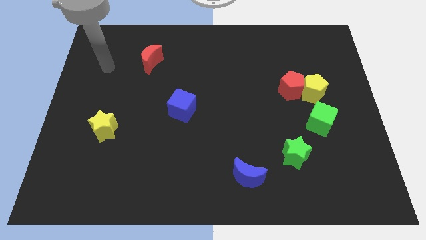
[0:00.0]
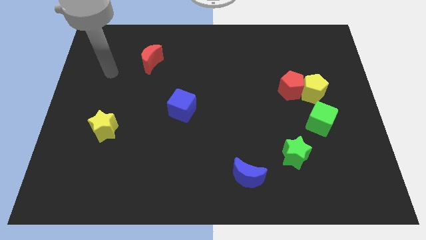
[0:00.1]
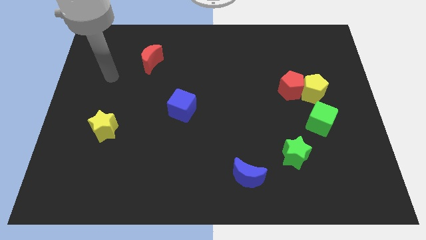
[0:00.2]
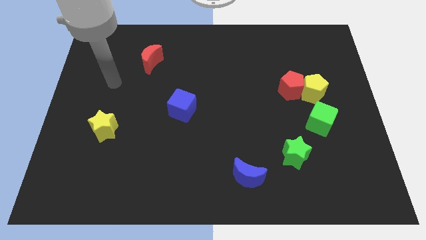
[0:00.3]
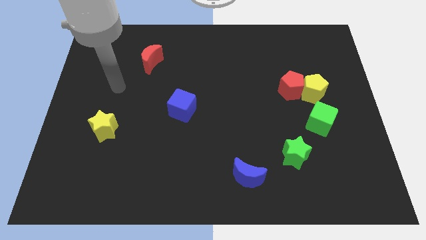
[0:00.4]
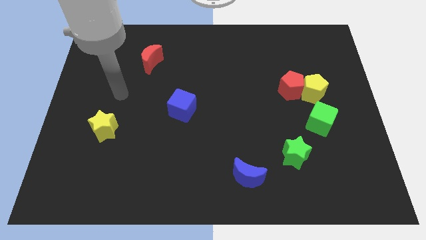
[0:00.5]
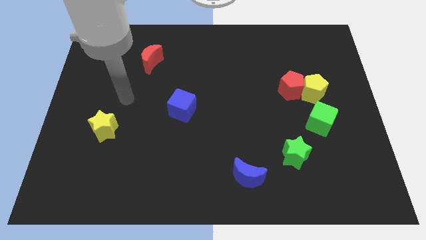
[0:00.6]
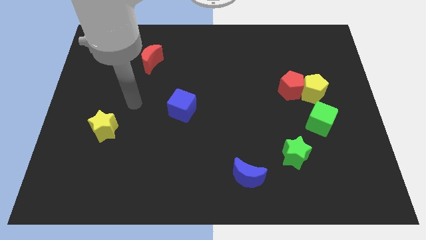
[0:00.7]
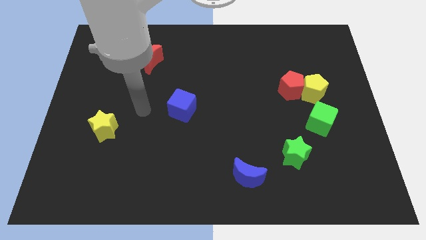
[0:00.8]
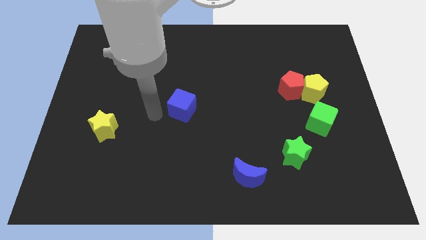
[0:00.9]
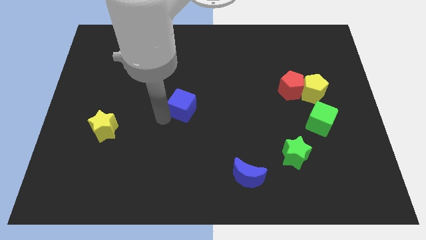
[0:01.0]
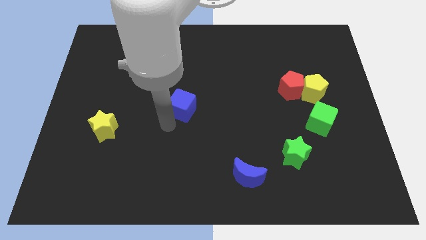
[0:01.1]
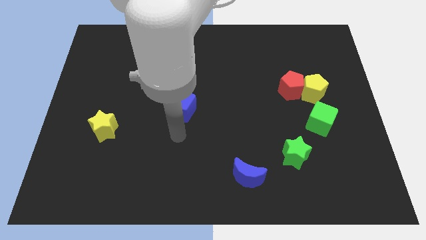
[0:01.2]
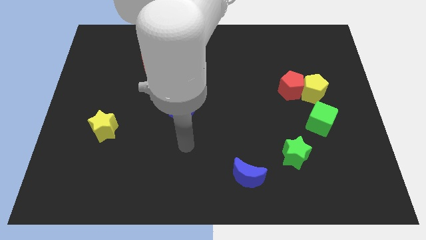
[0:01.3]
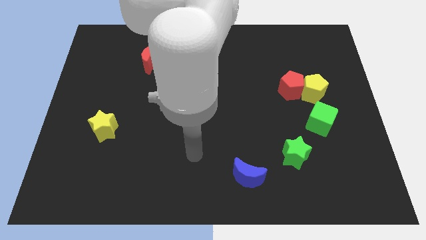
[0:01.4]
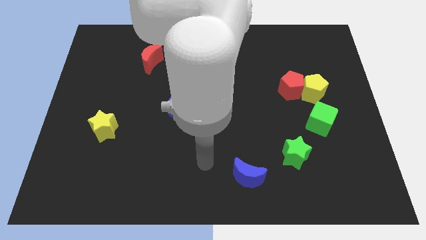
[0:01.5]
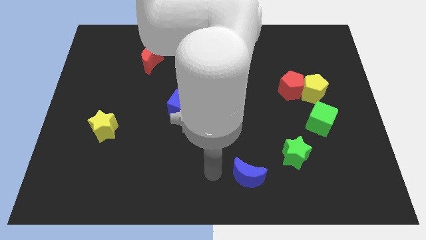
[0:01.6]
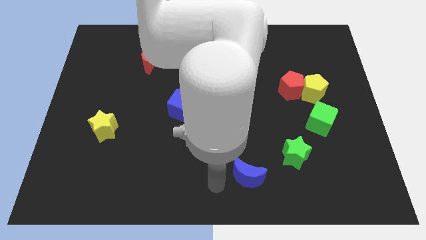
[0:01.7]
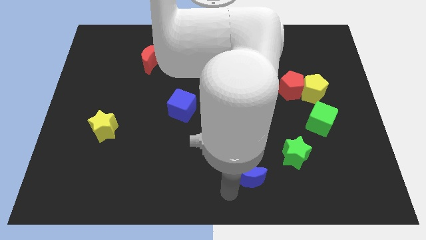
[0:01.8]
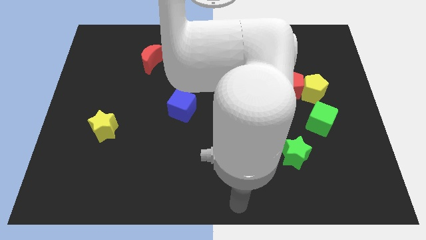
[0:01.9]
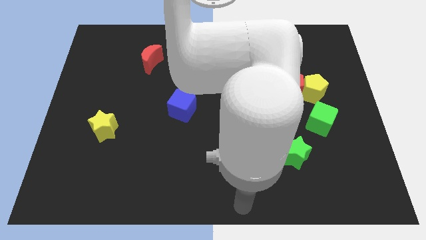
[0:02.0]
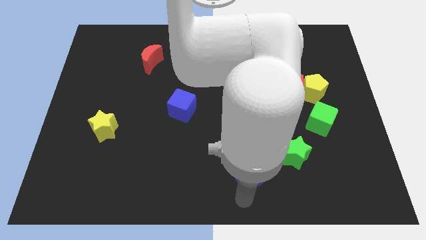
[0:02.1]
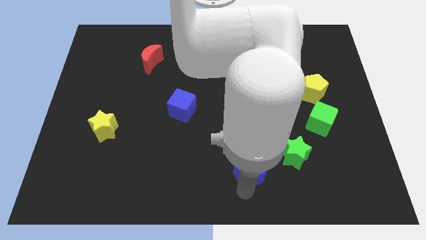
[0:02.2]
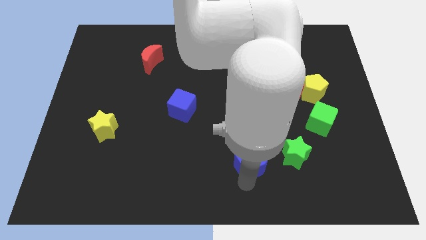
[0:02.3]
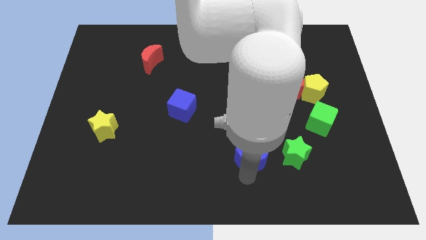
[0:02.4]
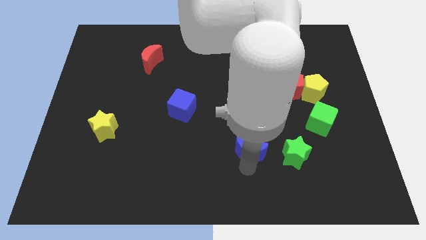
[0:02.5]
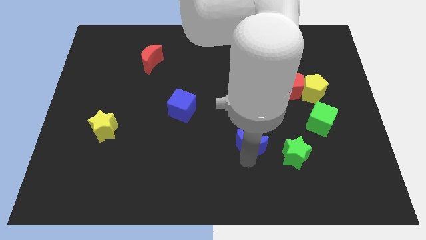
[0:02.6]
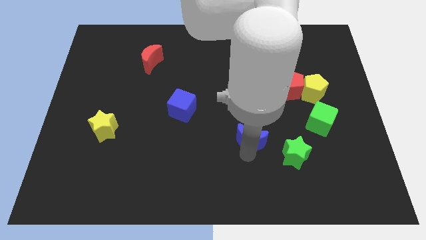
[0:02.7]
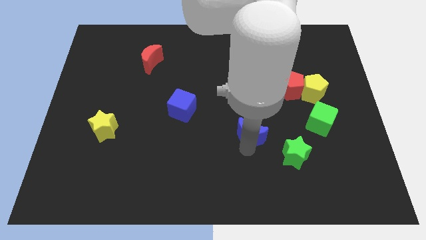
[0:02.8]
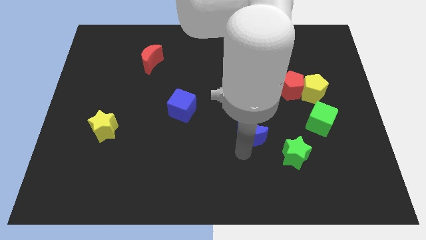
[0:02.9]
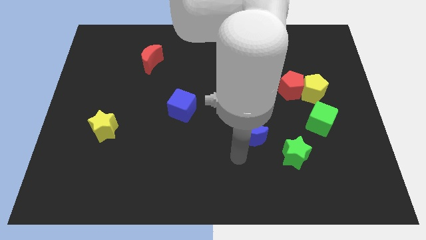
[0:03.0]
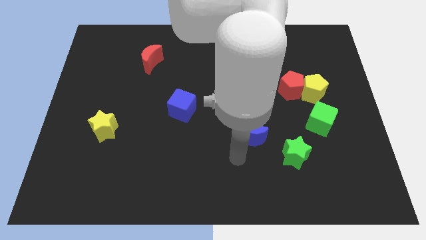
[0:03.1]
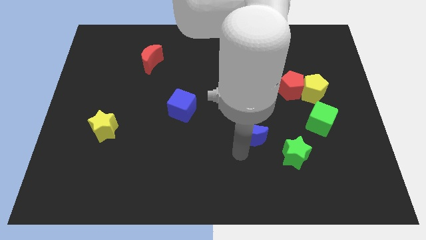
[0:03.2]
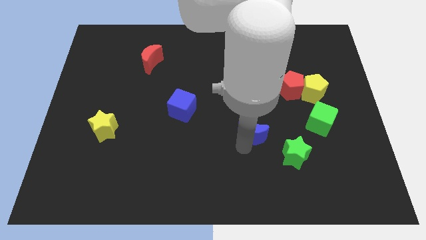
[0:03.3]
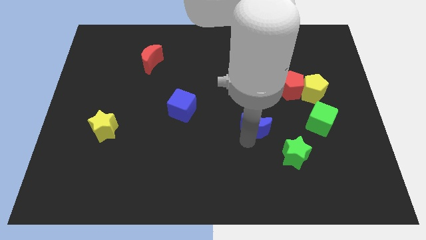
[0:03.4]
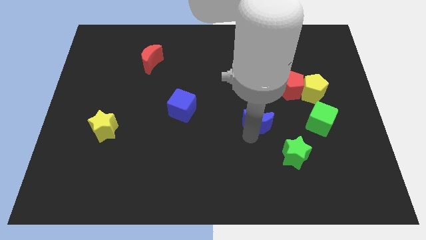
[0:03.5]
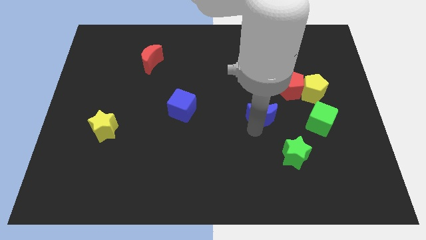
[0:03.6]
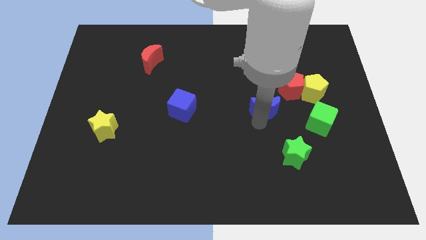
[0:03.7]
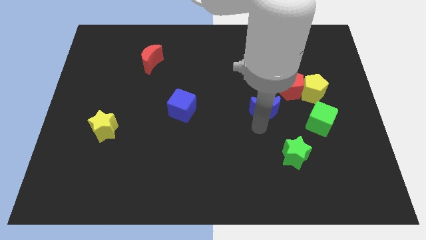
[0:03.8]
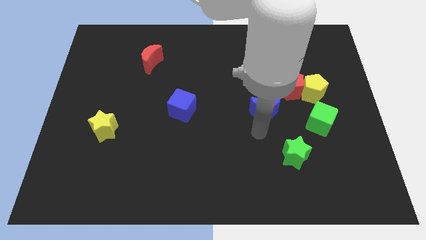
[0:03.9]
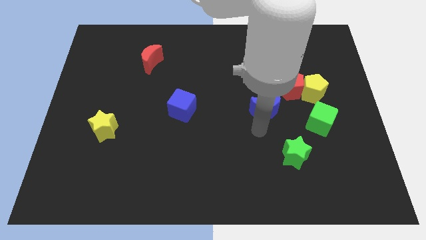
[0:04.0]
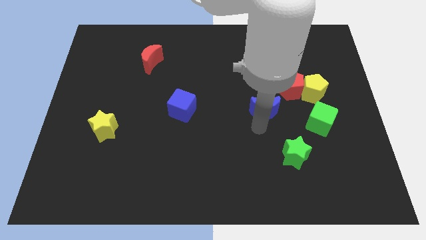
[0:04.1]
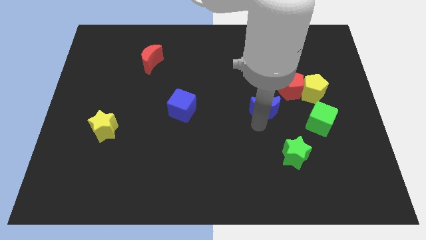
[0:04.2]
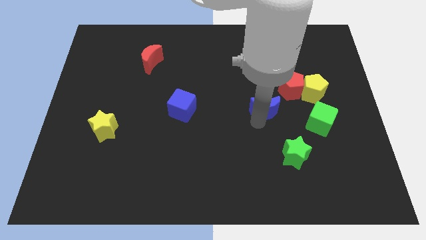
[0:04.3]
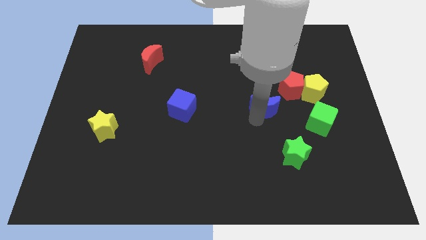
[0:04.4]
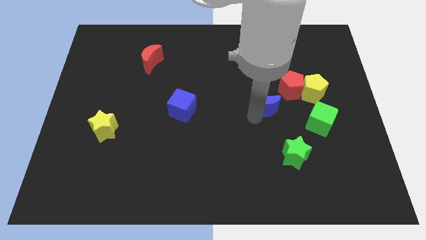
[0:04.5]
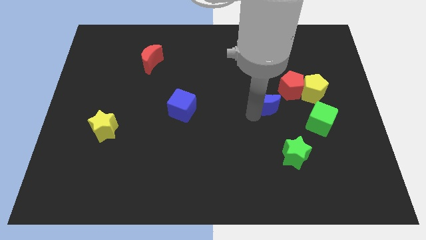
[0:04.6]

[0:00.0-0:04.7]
push the blue moon left of the yellow pentagon

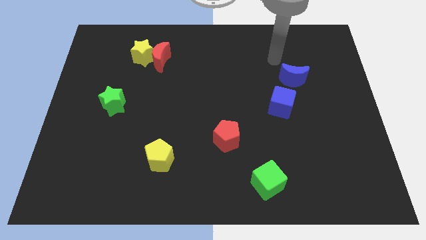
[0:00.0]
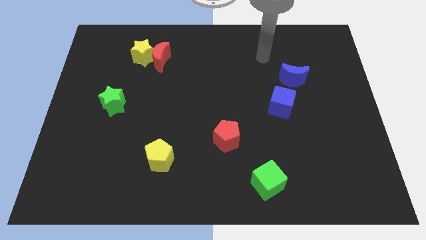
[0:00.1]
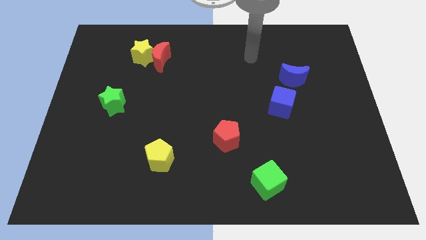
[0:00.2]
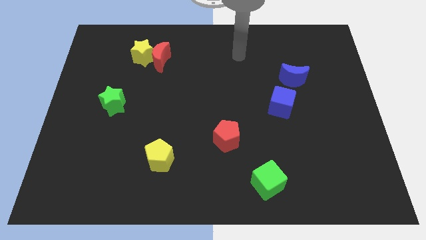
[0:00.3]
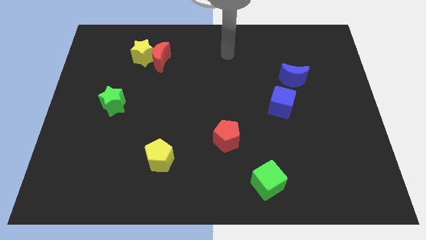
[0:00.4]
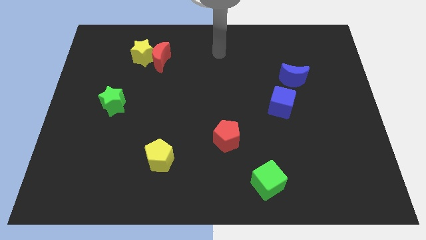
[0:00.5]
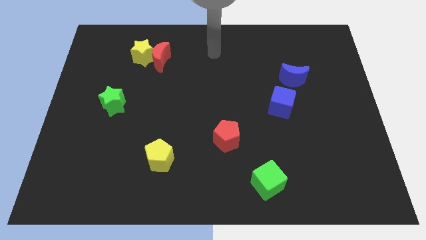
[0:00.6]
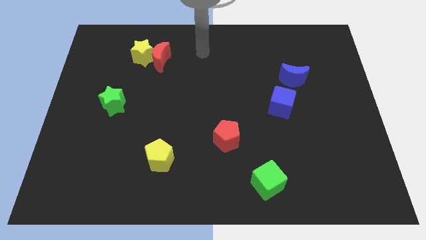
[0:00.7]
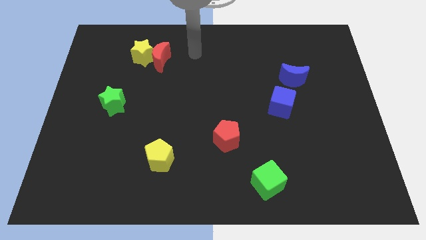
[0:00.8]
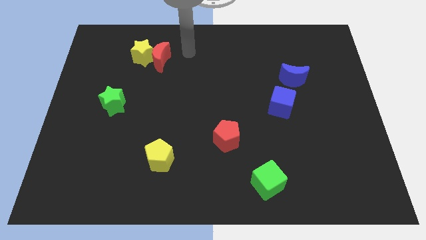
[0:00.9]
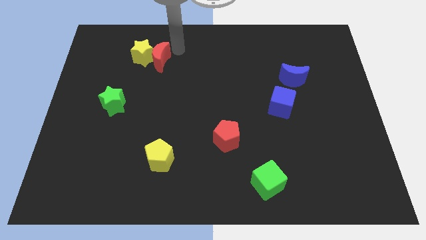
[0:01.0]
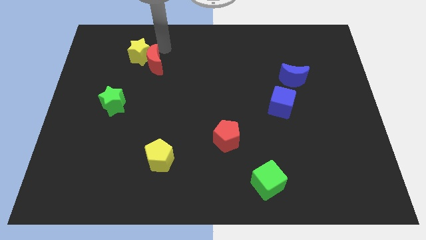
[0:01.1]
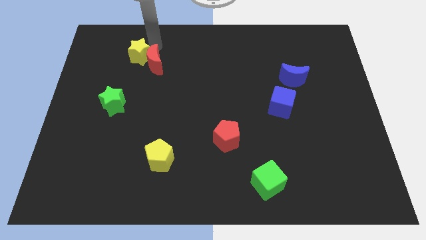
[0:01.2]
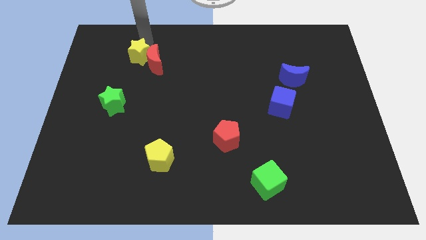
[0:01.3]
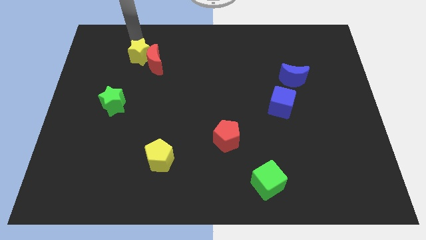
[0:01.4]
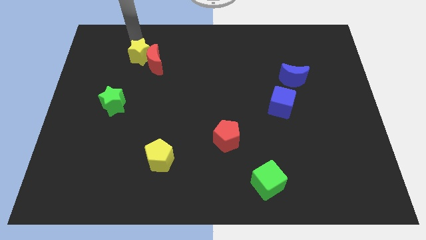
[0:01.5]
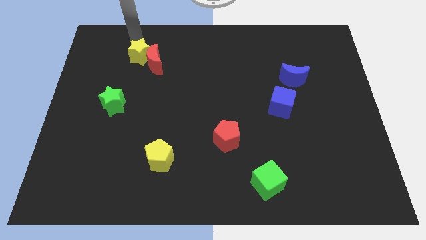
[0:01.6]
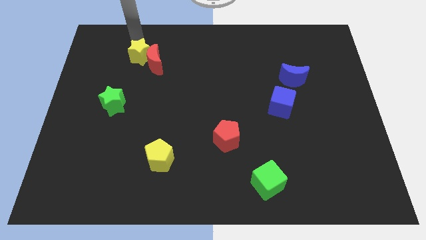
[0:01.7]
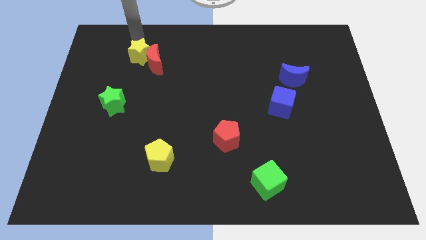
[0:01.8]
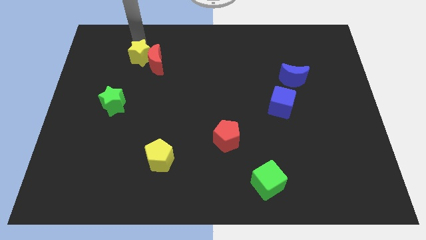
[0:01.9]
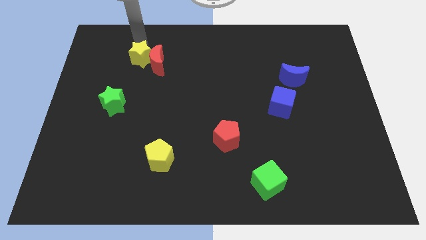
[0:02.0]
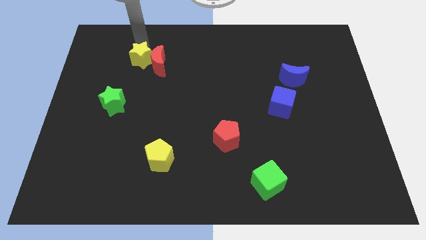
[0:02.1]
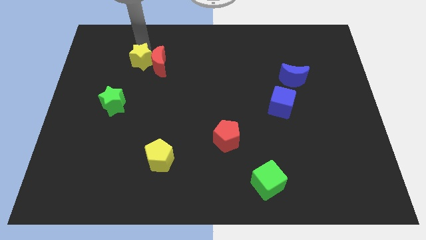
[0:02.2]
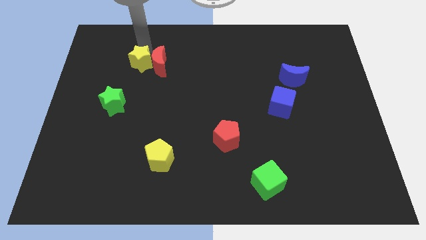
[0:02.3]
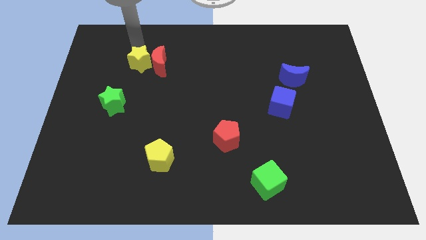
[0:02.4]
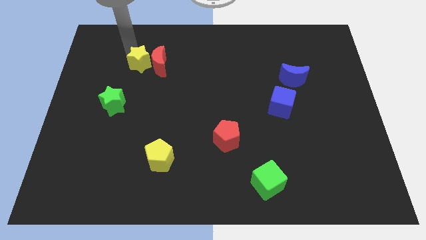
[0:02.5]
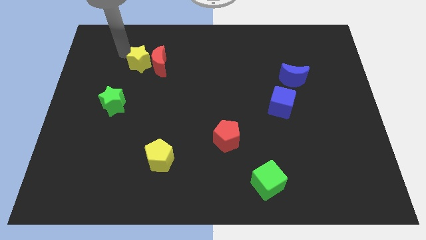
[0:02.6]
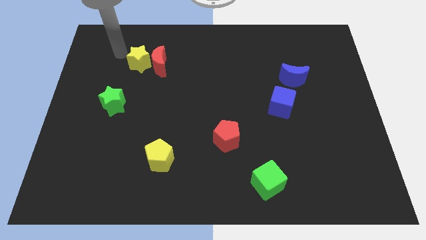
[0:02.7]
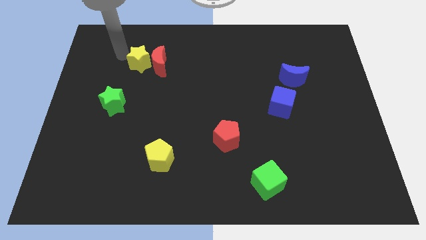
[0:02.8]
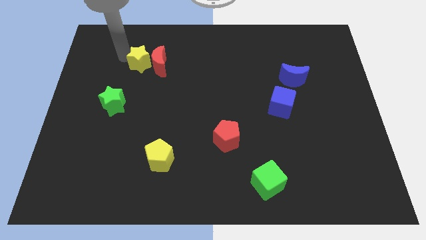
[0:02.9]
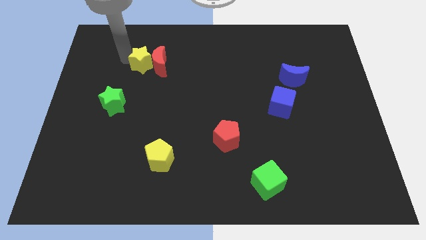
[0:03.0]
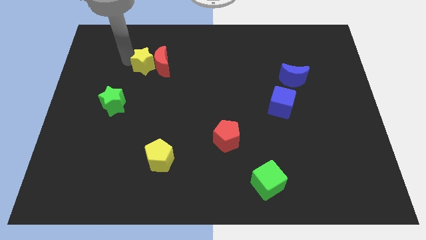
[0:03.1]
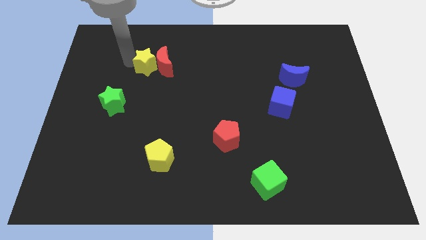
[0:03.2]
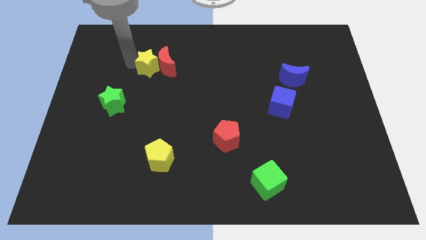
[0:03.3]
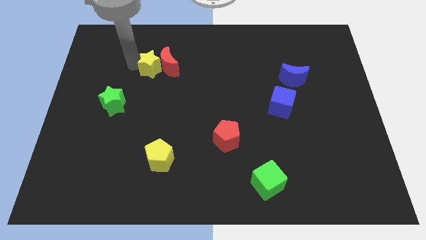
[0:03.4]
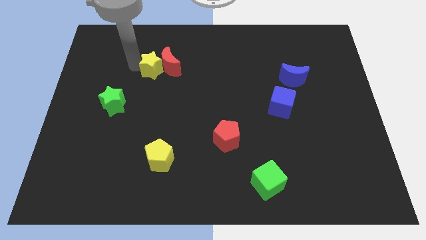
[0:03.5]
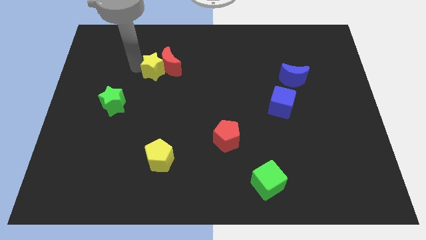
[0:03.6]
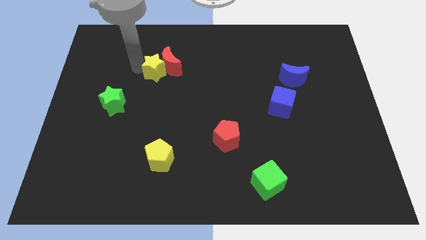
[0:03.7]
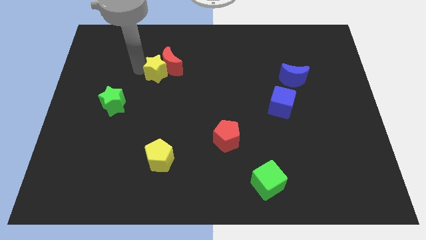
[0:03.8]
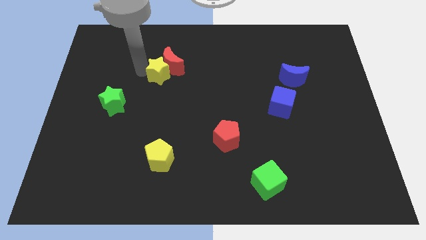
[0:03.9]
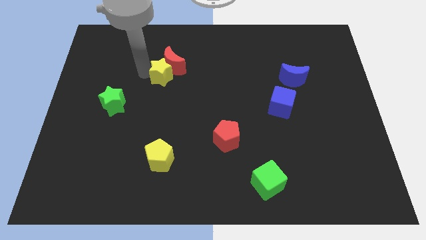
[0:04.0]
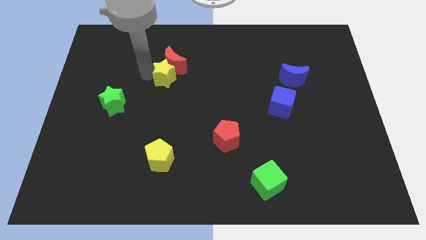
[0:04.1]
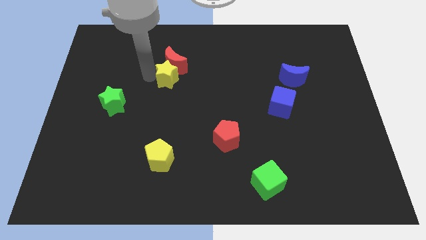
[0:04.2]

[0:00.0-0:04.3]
push the yellow star to the bottom right side of the red moon
